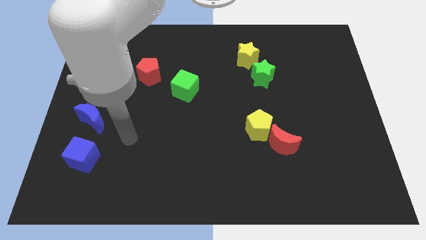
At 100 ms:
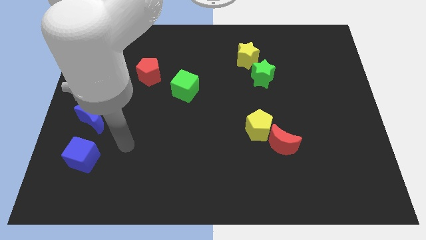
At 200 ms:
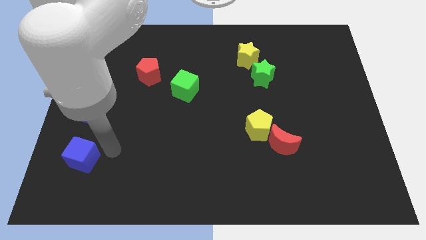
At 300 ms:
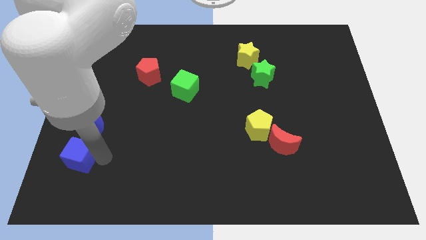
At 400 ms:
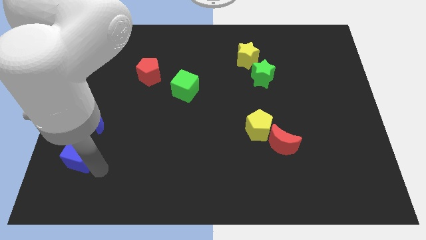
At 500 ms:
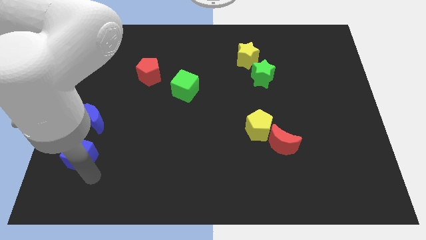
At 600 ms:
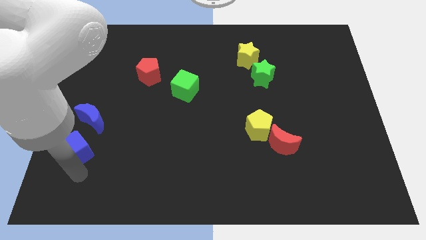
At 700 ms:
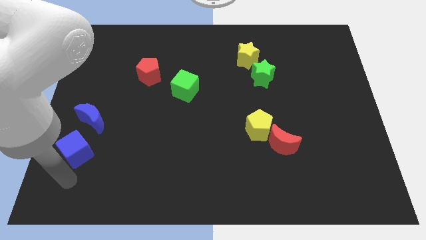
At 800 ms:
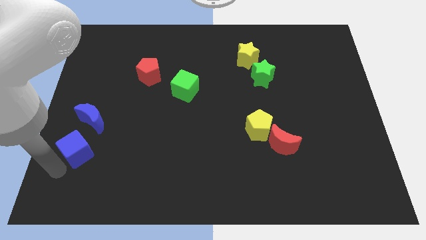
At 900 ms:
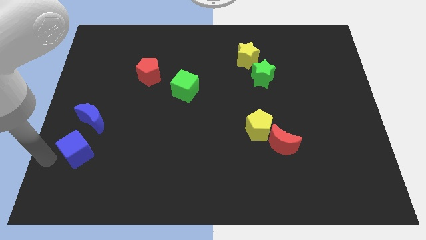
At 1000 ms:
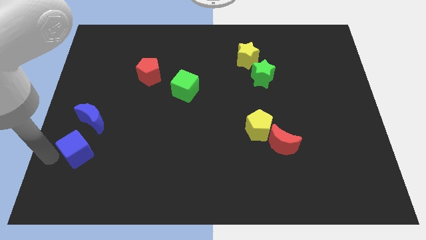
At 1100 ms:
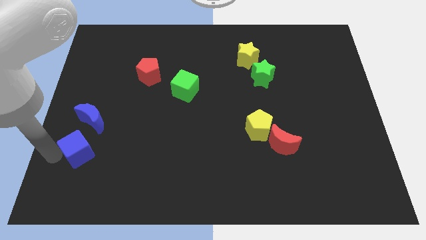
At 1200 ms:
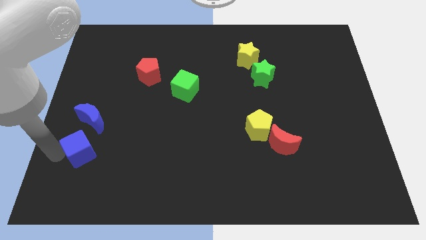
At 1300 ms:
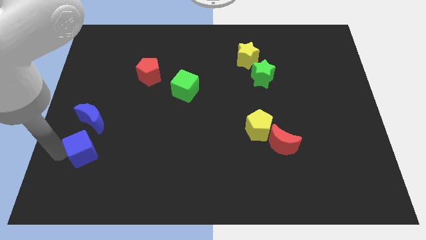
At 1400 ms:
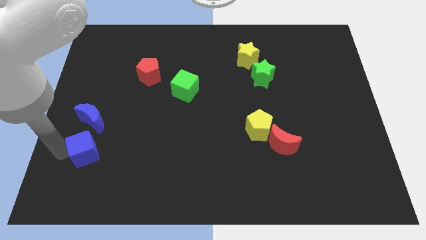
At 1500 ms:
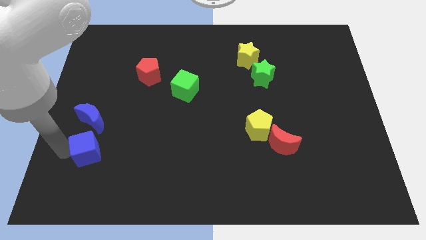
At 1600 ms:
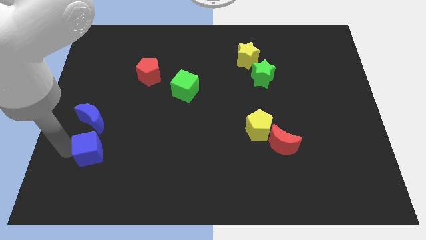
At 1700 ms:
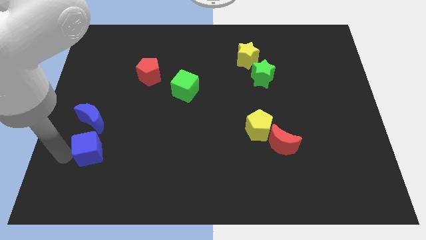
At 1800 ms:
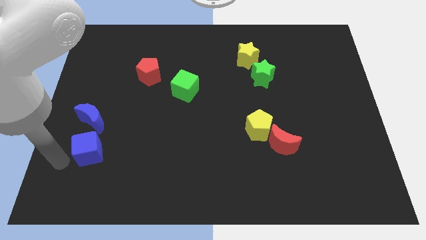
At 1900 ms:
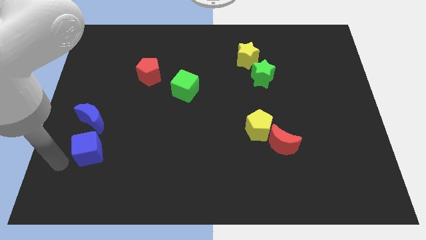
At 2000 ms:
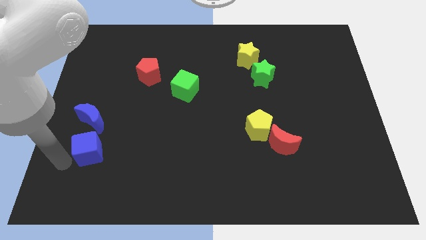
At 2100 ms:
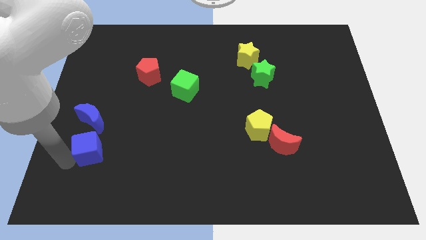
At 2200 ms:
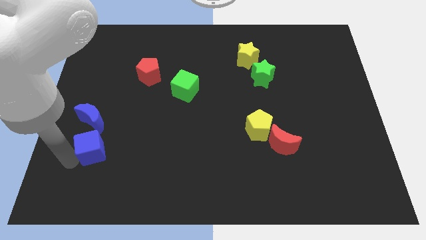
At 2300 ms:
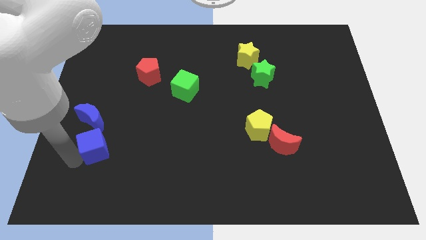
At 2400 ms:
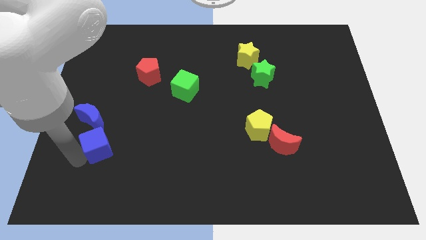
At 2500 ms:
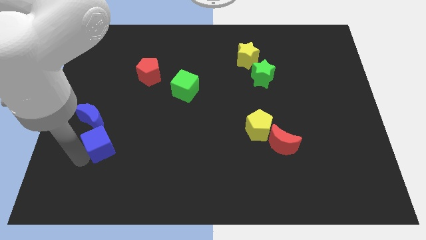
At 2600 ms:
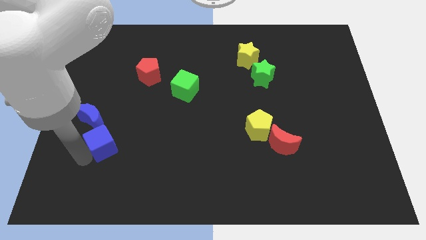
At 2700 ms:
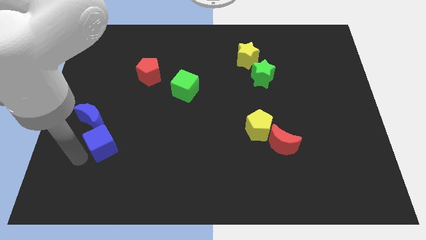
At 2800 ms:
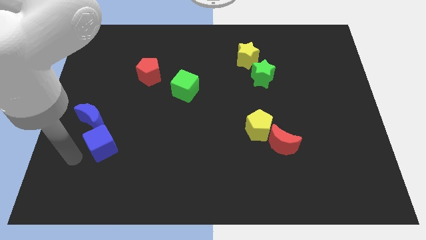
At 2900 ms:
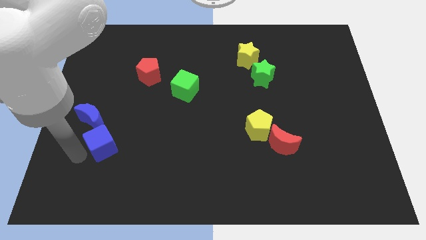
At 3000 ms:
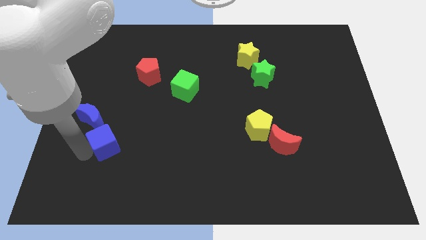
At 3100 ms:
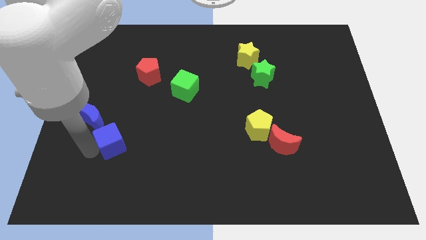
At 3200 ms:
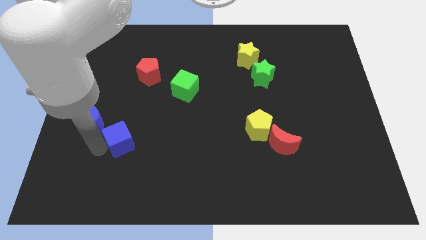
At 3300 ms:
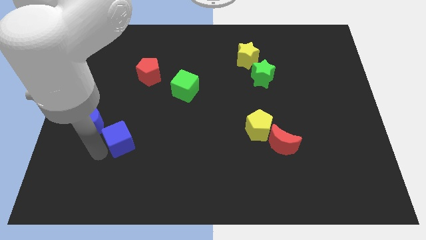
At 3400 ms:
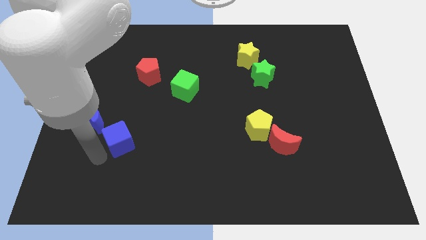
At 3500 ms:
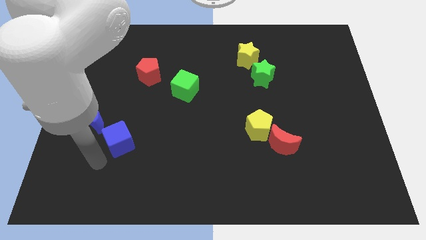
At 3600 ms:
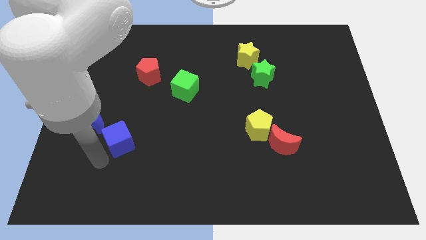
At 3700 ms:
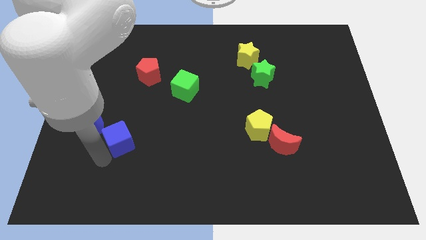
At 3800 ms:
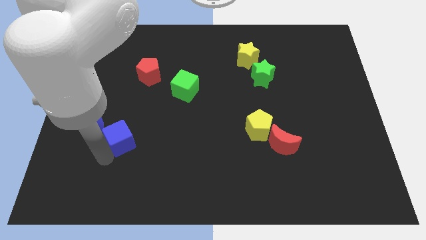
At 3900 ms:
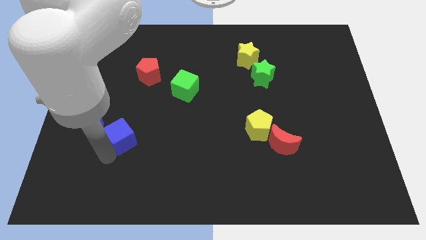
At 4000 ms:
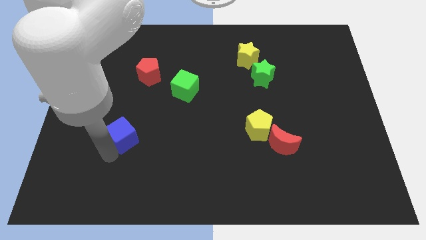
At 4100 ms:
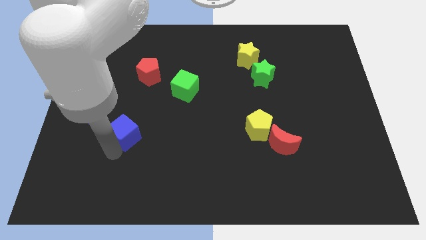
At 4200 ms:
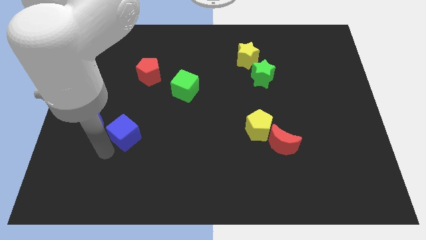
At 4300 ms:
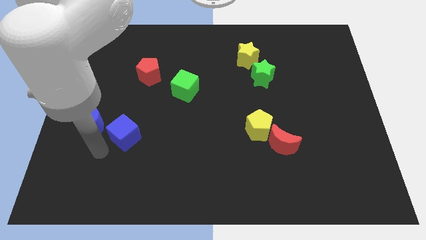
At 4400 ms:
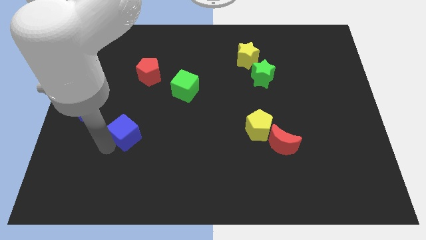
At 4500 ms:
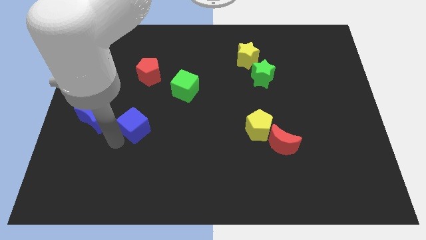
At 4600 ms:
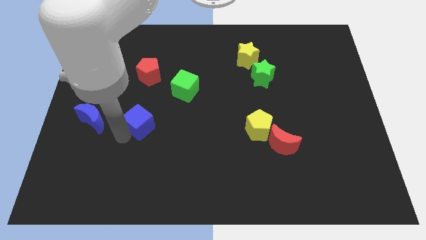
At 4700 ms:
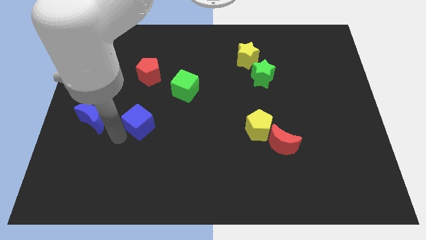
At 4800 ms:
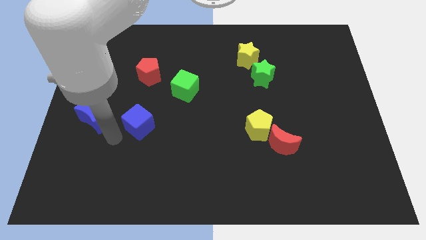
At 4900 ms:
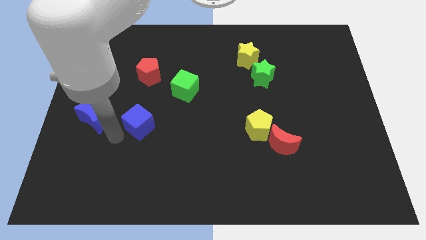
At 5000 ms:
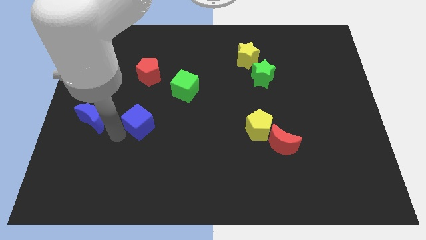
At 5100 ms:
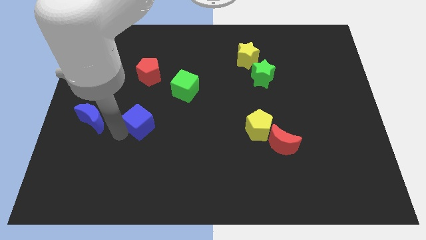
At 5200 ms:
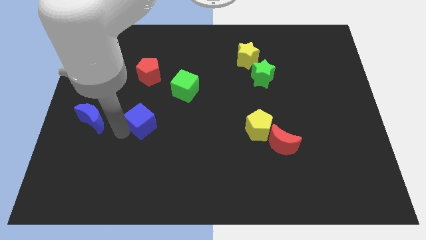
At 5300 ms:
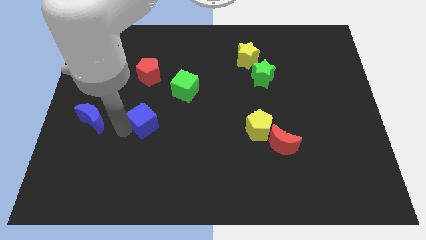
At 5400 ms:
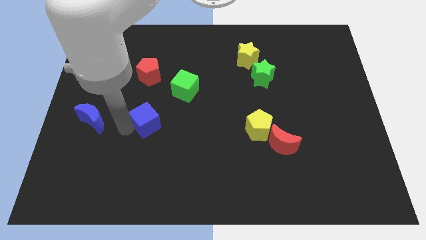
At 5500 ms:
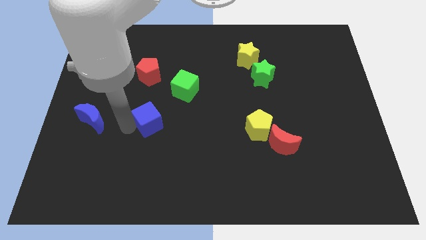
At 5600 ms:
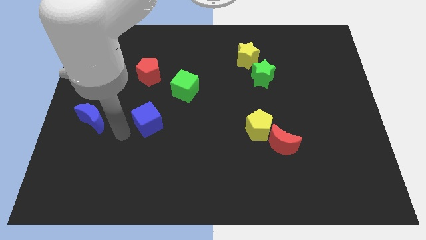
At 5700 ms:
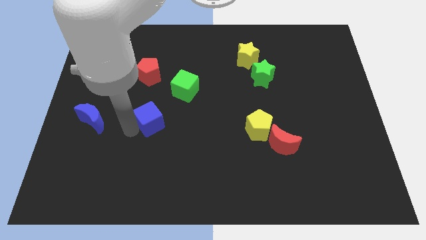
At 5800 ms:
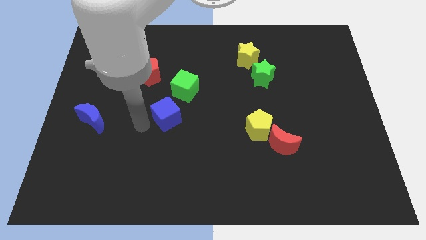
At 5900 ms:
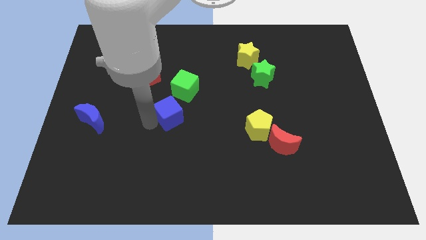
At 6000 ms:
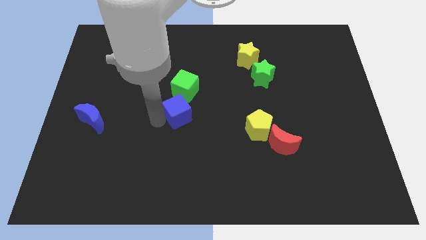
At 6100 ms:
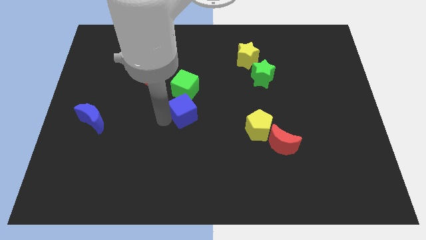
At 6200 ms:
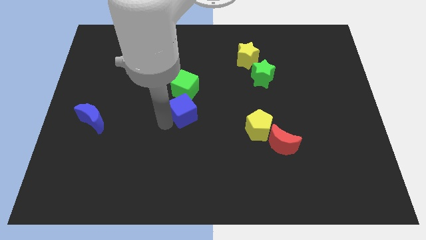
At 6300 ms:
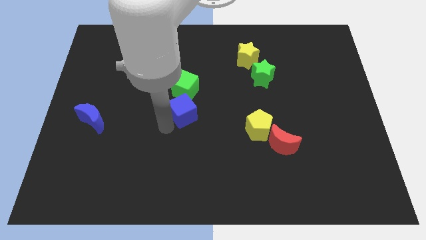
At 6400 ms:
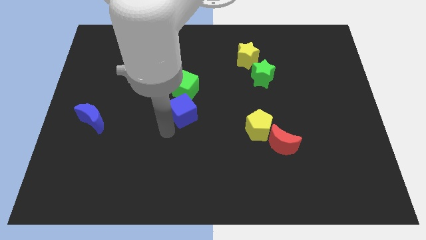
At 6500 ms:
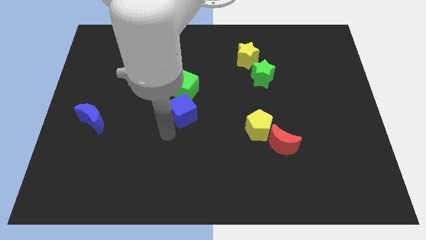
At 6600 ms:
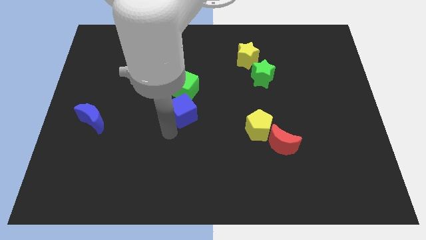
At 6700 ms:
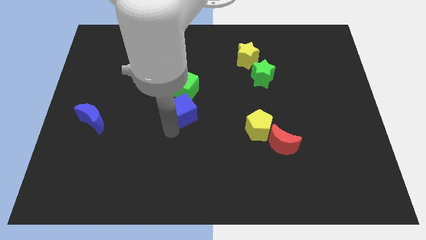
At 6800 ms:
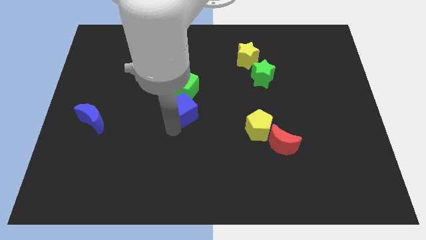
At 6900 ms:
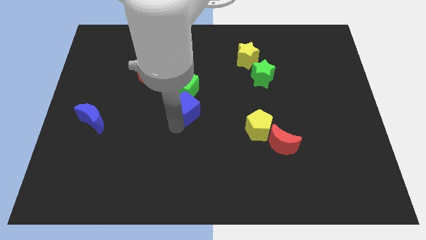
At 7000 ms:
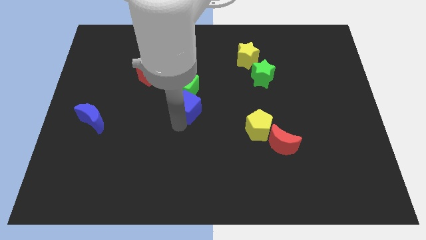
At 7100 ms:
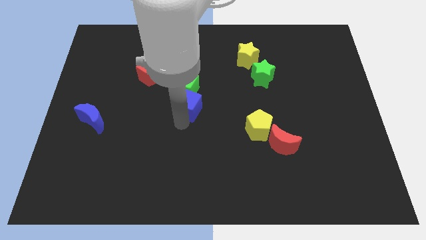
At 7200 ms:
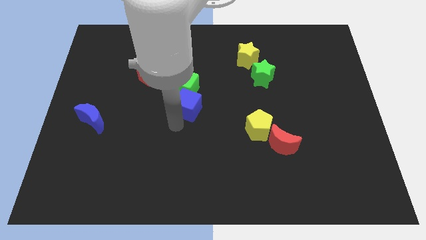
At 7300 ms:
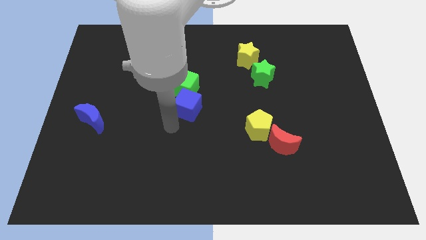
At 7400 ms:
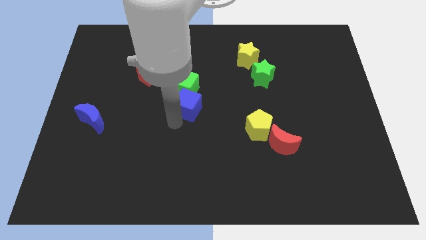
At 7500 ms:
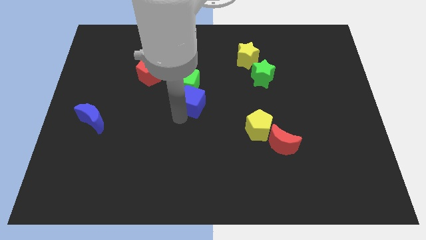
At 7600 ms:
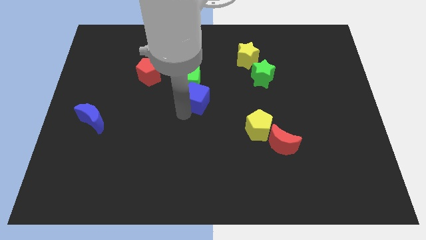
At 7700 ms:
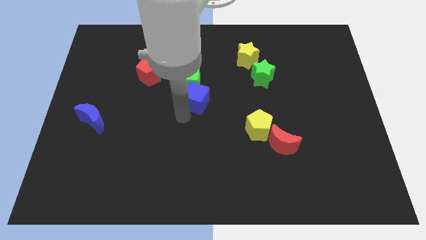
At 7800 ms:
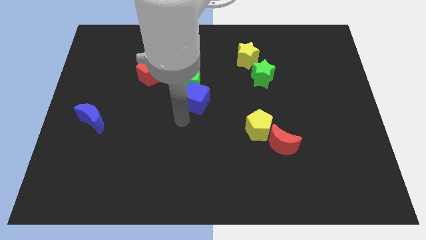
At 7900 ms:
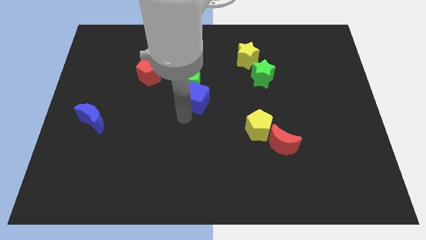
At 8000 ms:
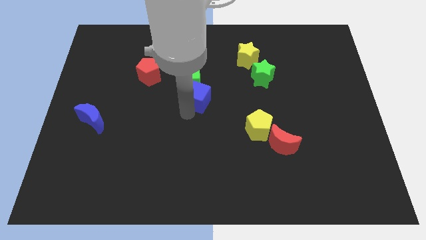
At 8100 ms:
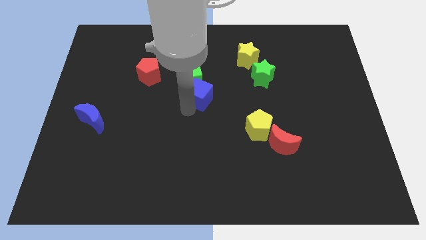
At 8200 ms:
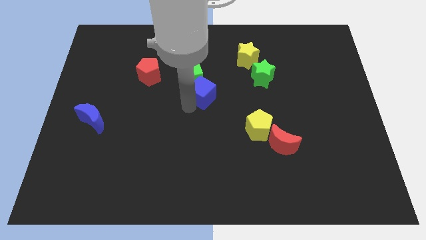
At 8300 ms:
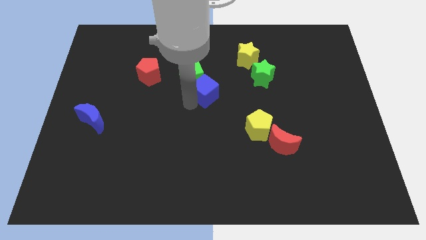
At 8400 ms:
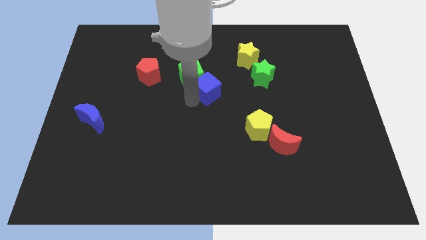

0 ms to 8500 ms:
slide the blue cube to the right of the green cube
